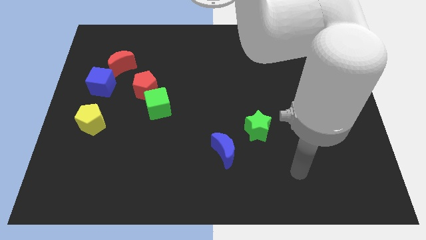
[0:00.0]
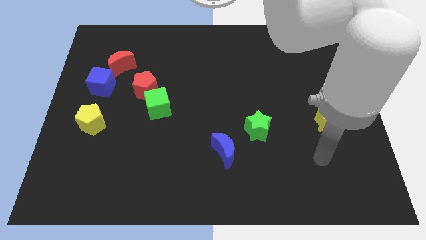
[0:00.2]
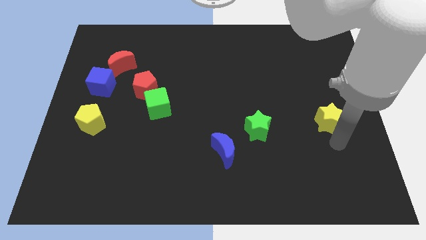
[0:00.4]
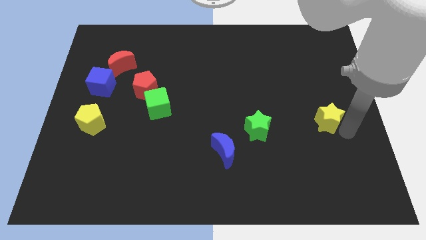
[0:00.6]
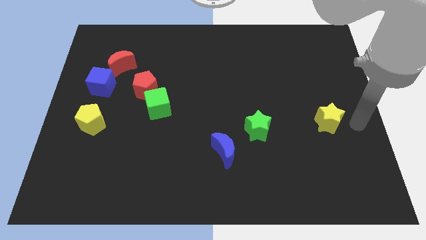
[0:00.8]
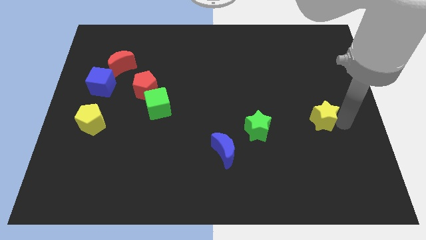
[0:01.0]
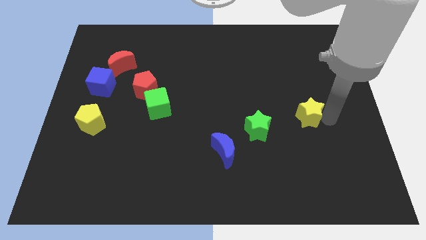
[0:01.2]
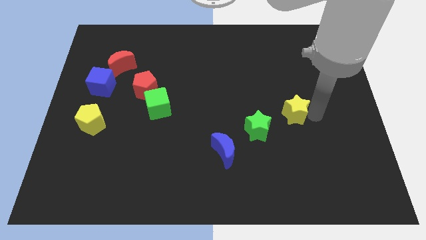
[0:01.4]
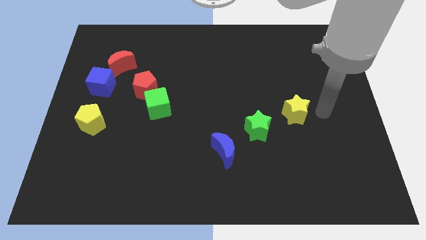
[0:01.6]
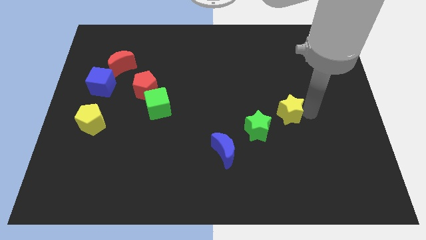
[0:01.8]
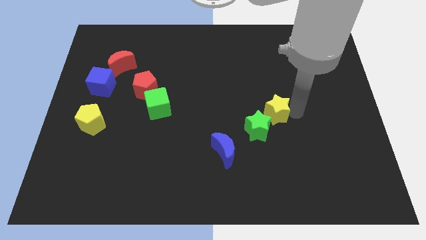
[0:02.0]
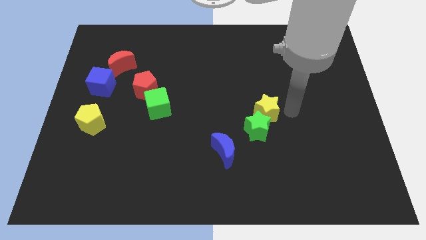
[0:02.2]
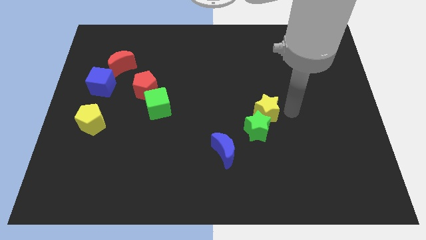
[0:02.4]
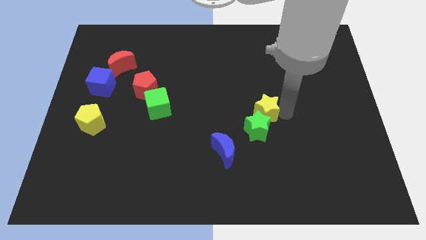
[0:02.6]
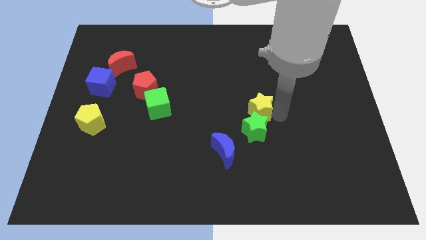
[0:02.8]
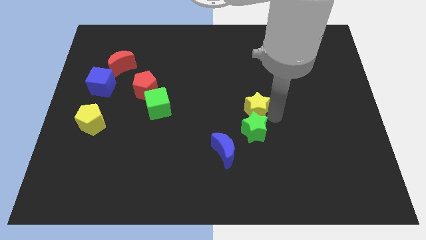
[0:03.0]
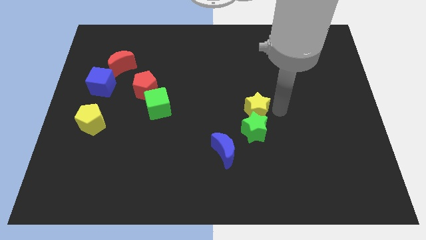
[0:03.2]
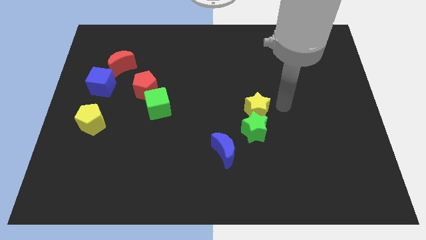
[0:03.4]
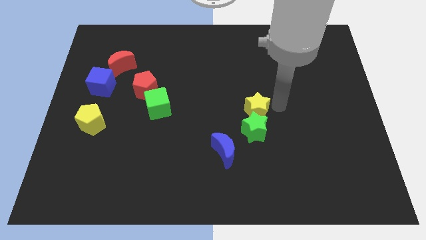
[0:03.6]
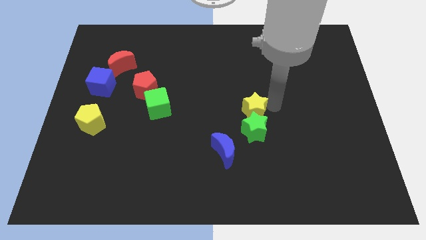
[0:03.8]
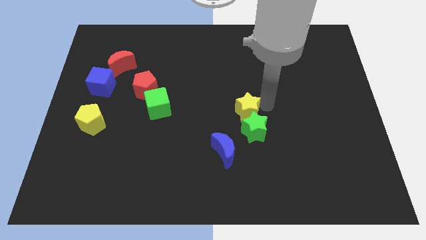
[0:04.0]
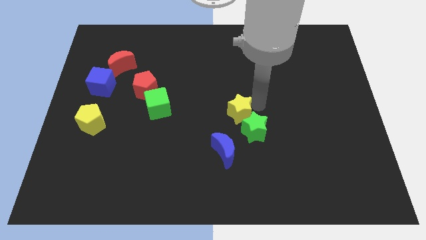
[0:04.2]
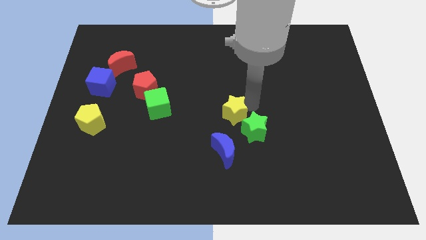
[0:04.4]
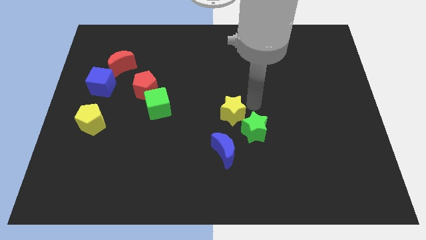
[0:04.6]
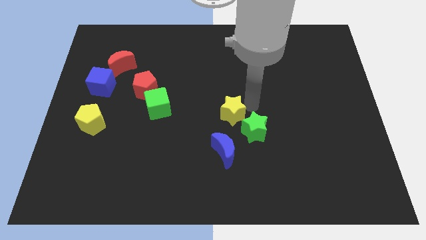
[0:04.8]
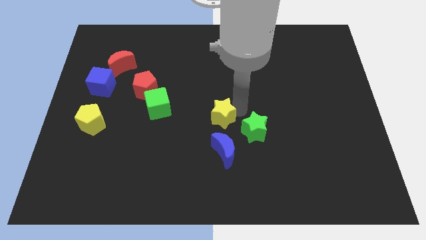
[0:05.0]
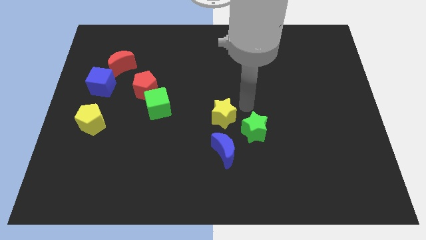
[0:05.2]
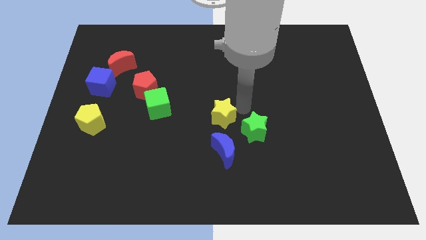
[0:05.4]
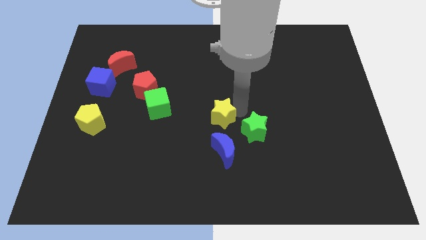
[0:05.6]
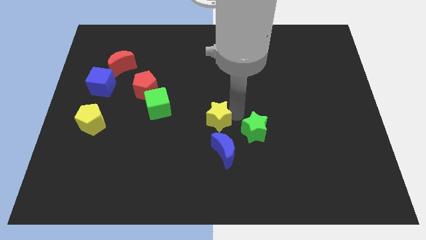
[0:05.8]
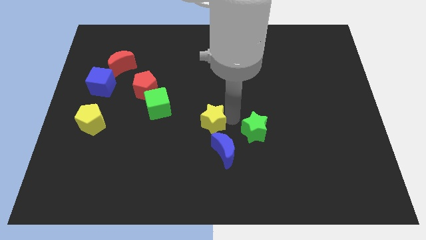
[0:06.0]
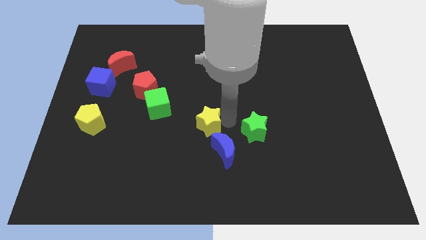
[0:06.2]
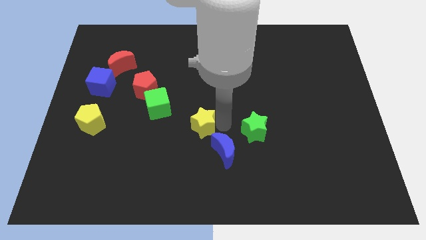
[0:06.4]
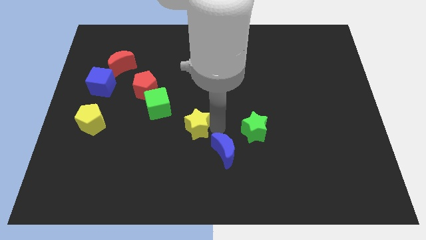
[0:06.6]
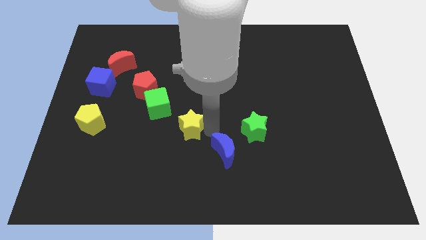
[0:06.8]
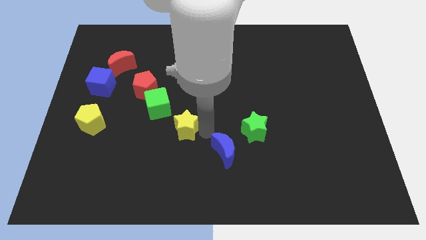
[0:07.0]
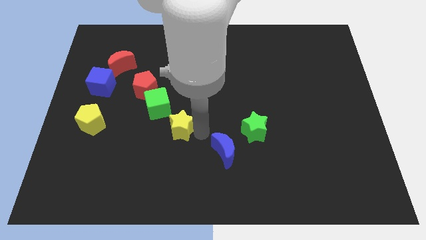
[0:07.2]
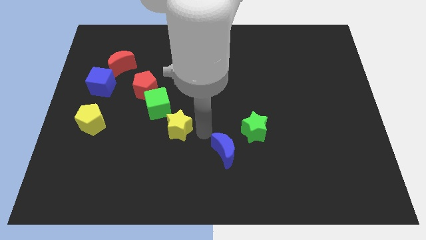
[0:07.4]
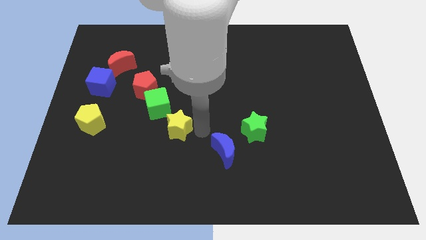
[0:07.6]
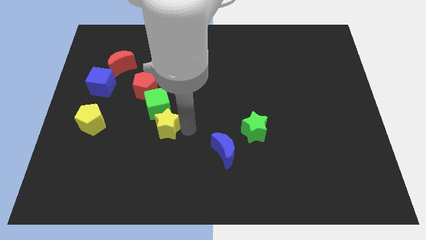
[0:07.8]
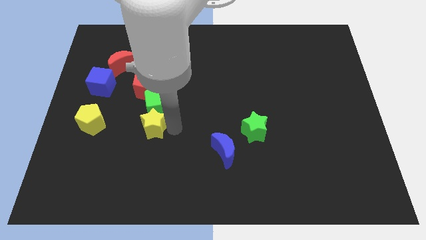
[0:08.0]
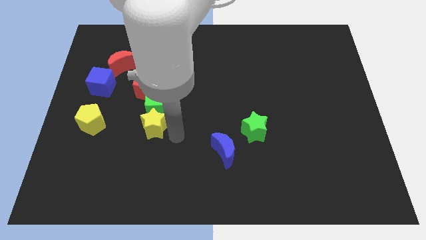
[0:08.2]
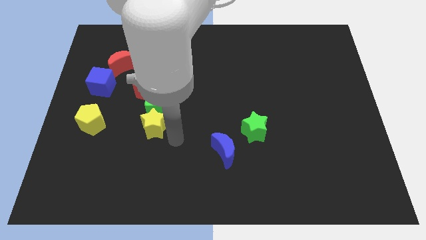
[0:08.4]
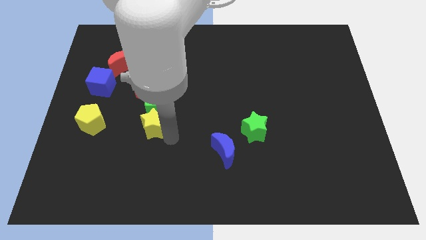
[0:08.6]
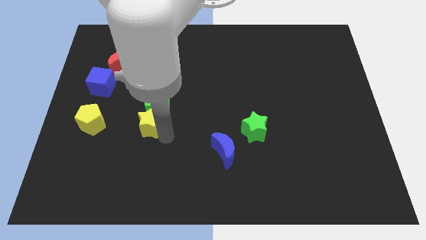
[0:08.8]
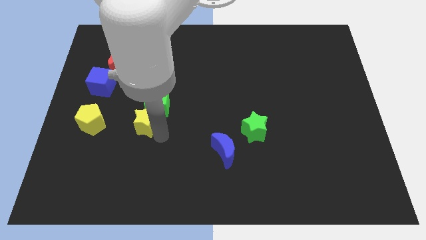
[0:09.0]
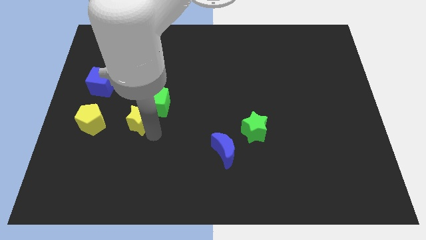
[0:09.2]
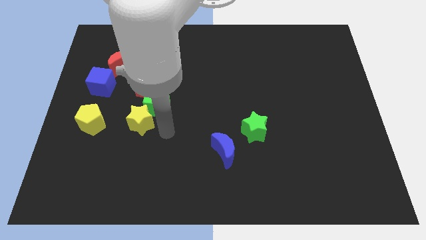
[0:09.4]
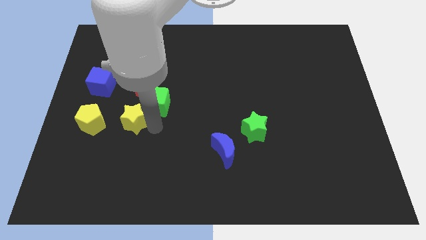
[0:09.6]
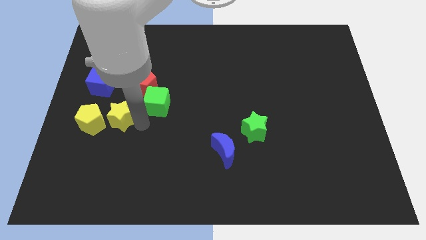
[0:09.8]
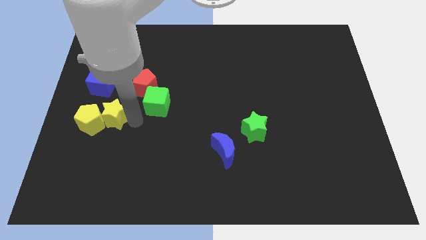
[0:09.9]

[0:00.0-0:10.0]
move the yellow star to the yellow pentagon

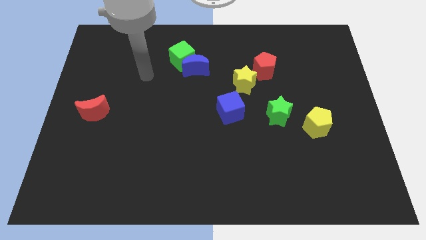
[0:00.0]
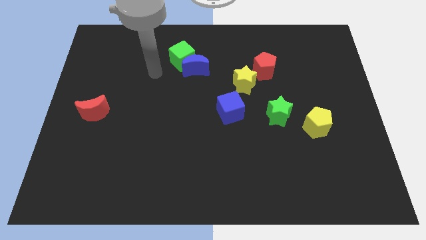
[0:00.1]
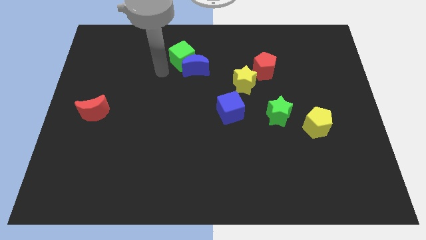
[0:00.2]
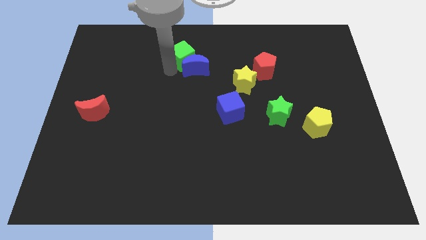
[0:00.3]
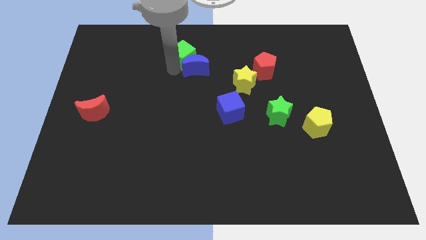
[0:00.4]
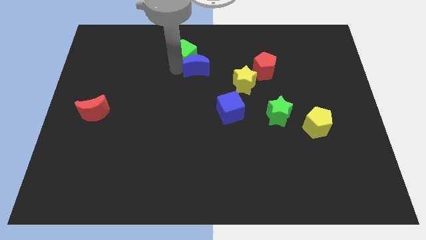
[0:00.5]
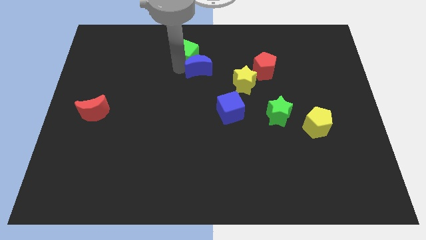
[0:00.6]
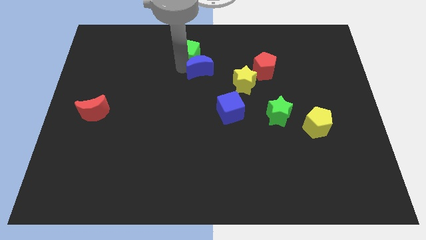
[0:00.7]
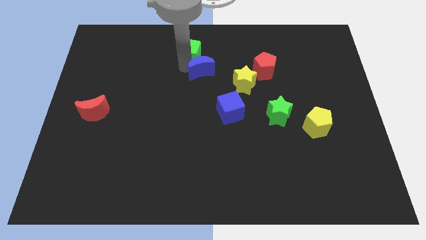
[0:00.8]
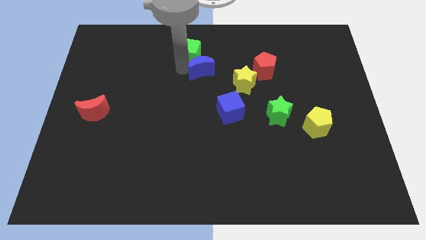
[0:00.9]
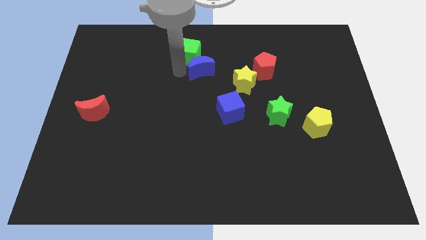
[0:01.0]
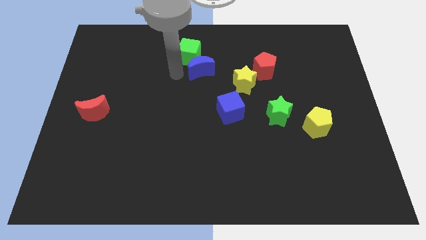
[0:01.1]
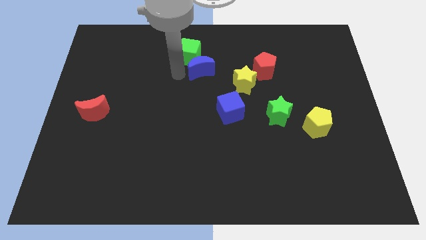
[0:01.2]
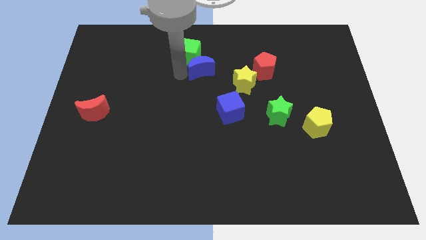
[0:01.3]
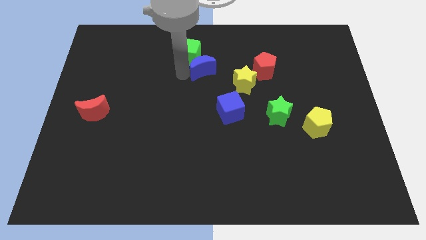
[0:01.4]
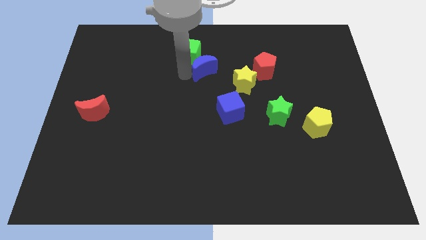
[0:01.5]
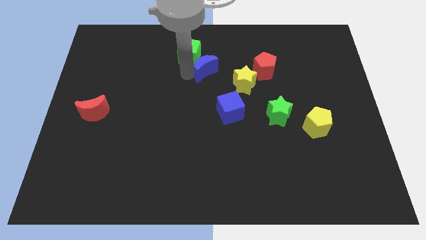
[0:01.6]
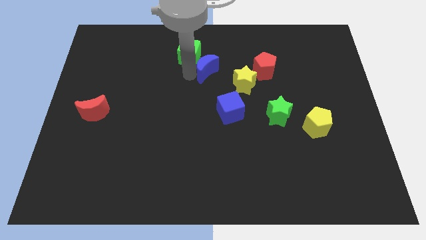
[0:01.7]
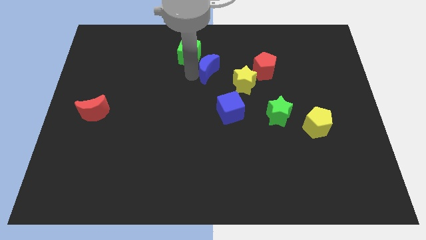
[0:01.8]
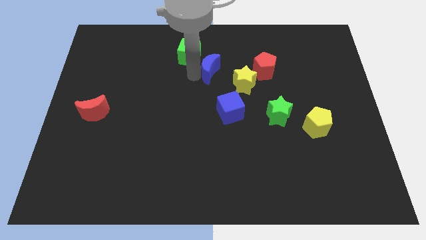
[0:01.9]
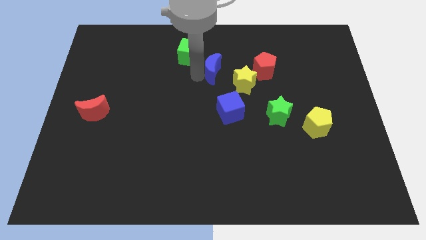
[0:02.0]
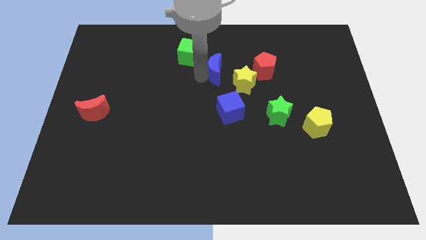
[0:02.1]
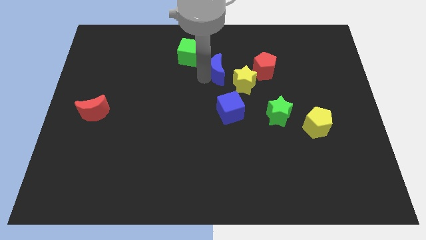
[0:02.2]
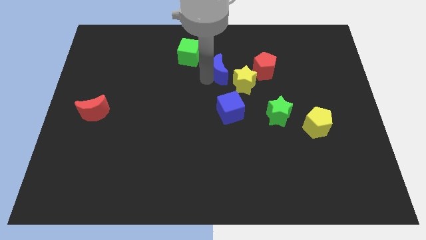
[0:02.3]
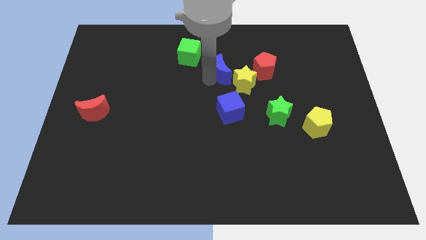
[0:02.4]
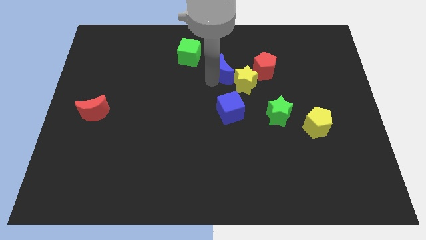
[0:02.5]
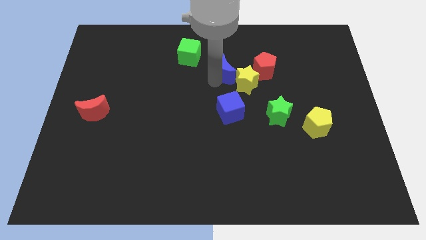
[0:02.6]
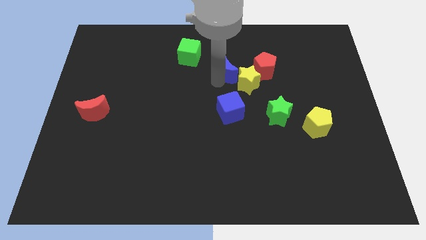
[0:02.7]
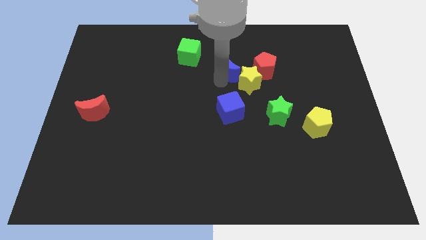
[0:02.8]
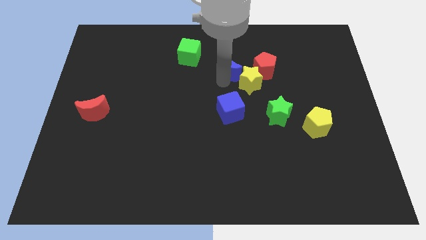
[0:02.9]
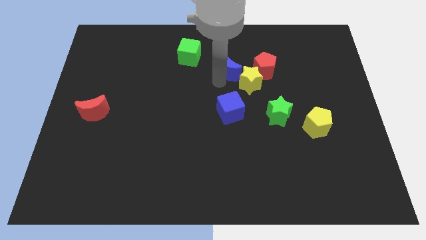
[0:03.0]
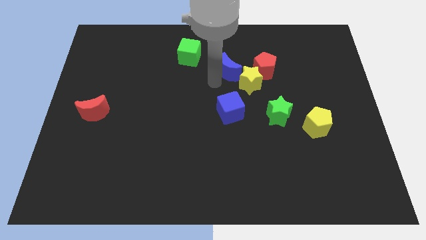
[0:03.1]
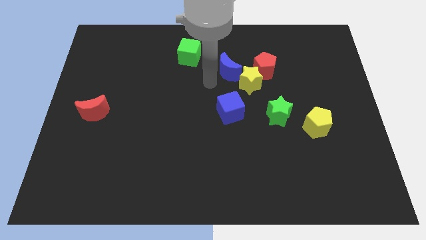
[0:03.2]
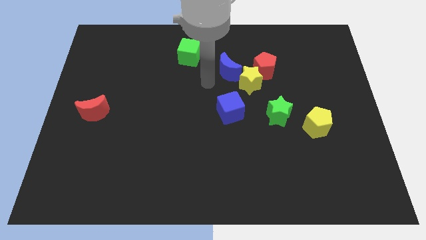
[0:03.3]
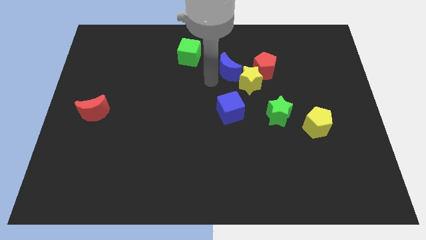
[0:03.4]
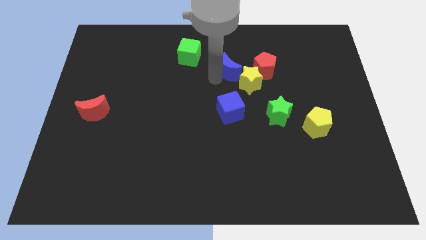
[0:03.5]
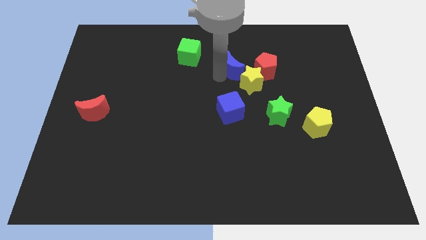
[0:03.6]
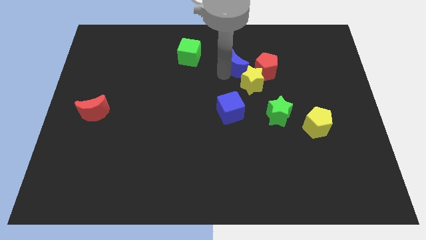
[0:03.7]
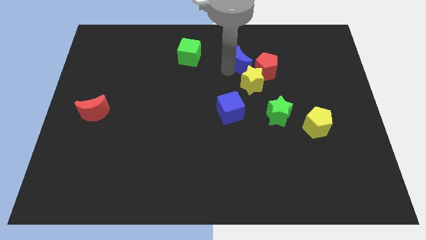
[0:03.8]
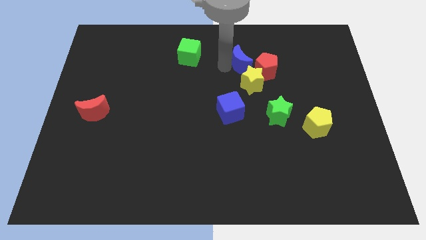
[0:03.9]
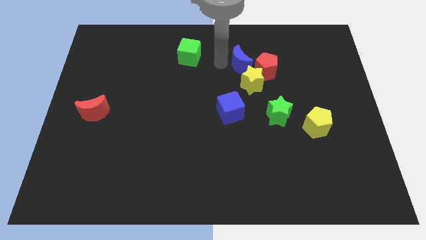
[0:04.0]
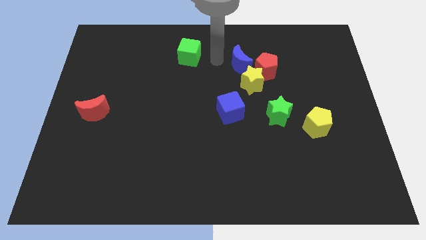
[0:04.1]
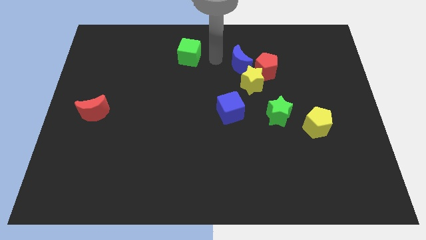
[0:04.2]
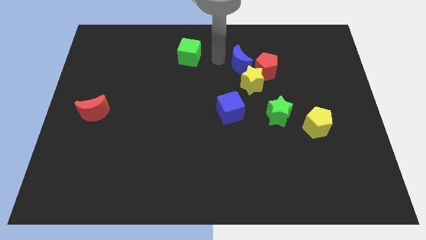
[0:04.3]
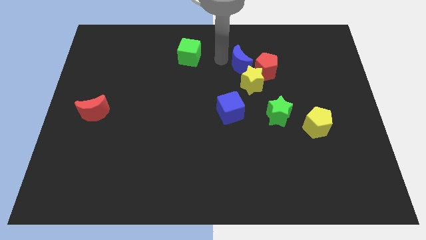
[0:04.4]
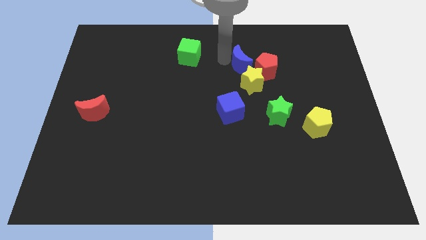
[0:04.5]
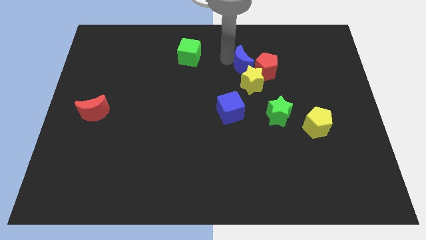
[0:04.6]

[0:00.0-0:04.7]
move the blue moon next to the red pentagon
